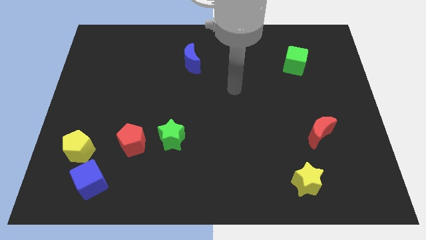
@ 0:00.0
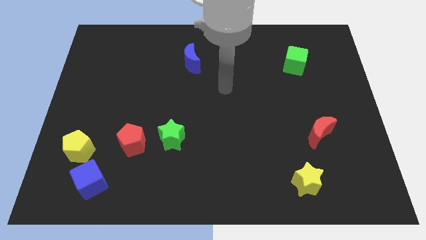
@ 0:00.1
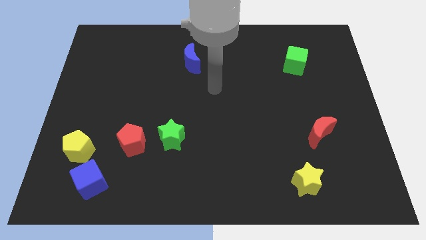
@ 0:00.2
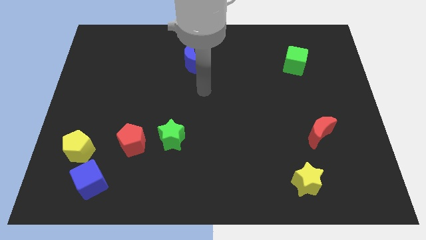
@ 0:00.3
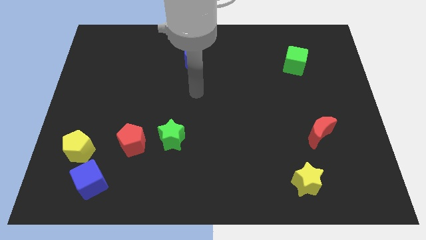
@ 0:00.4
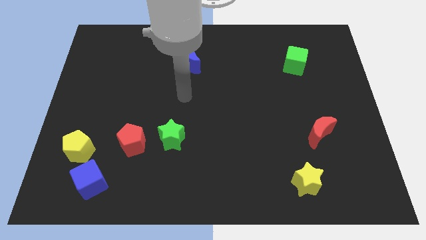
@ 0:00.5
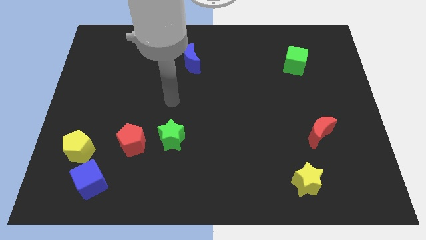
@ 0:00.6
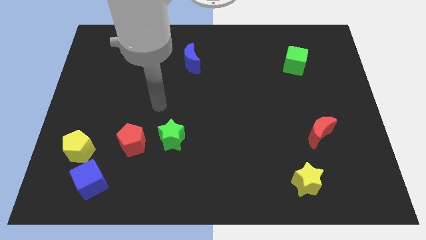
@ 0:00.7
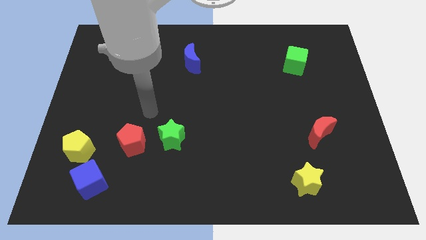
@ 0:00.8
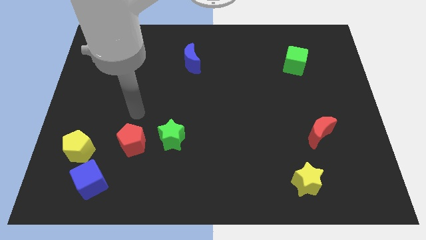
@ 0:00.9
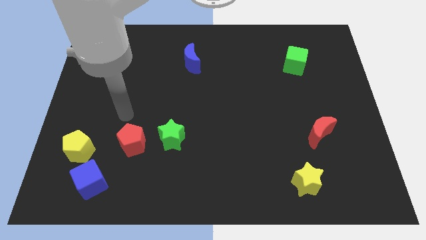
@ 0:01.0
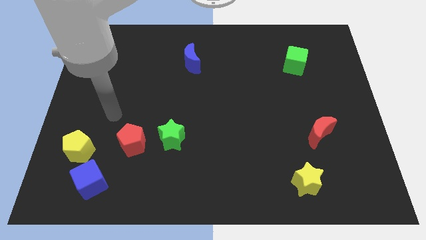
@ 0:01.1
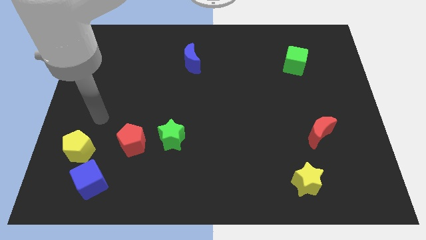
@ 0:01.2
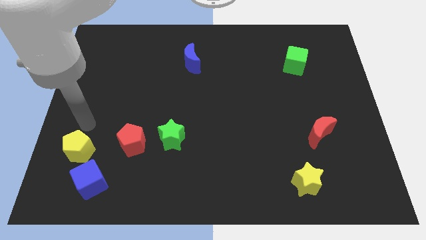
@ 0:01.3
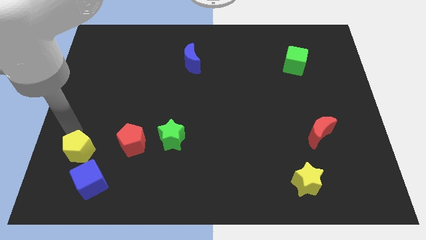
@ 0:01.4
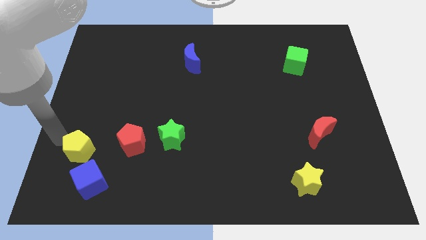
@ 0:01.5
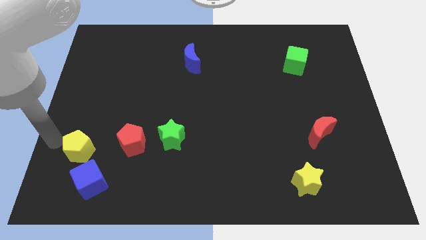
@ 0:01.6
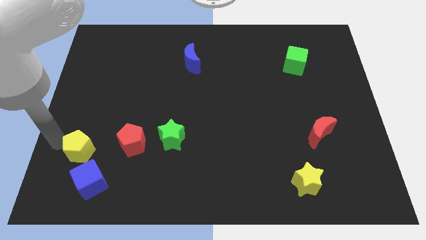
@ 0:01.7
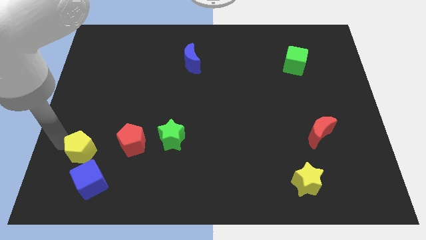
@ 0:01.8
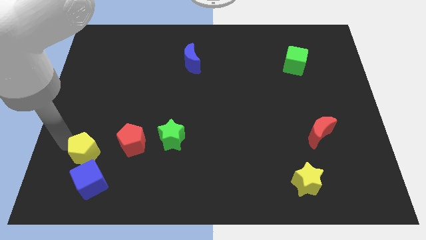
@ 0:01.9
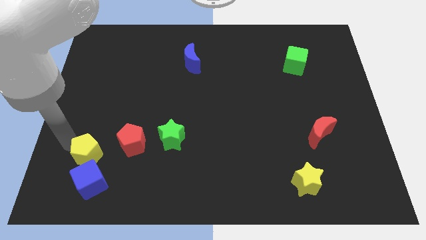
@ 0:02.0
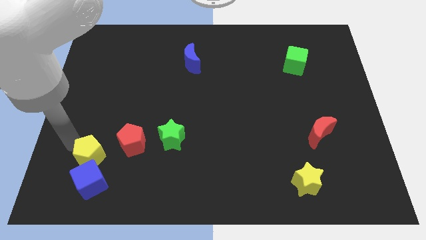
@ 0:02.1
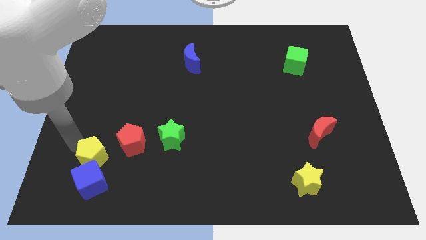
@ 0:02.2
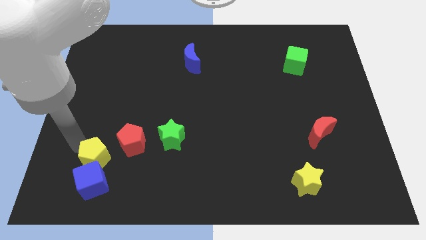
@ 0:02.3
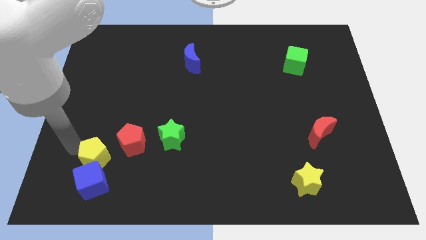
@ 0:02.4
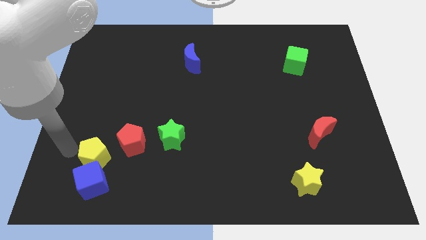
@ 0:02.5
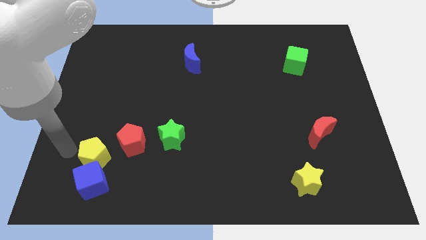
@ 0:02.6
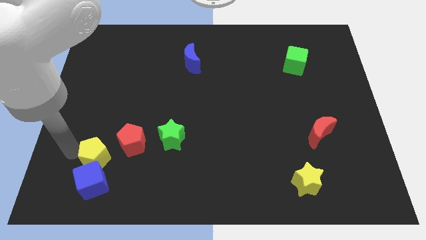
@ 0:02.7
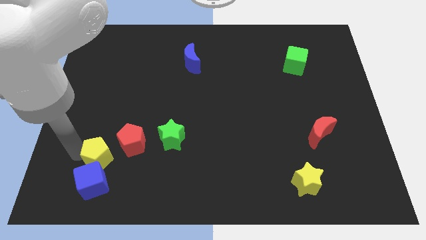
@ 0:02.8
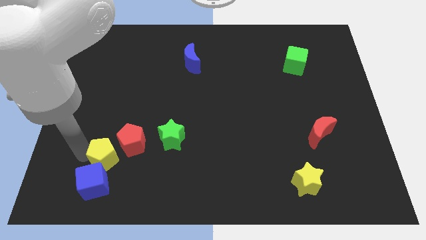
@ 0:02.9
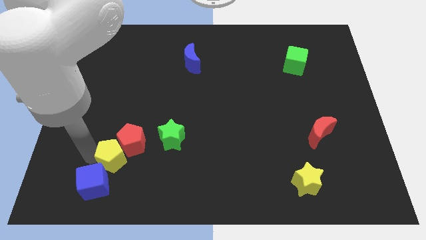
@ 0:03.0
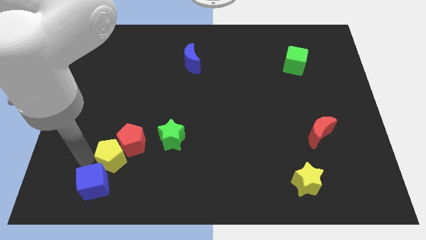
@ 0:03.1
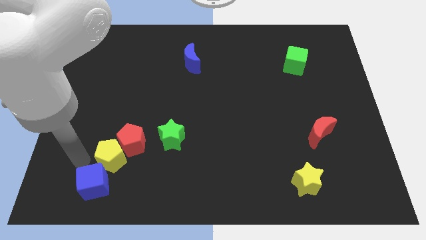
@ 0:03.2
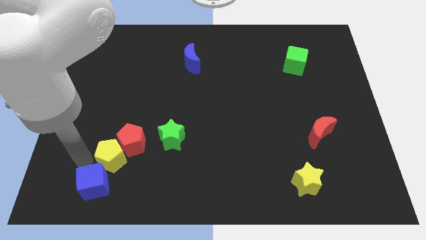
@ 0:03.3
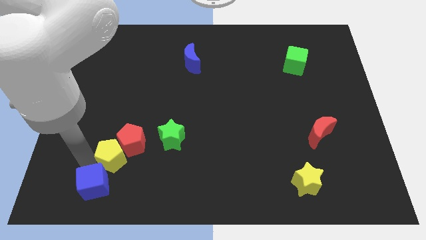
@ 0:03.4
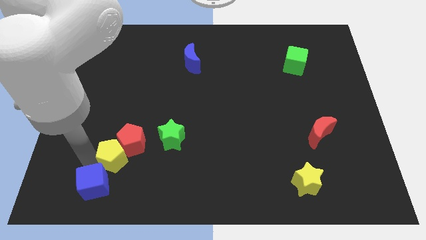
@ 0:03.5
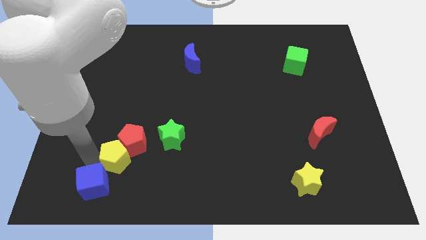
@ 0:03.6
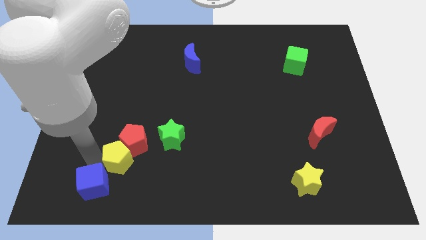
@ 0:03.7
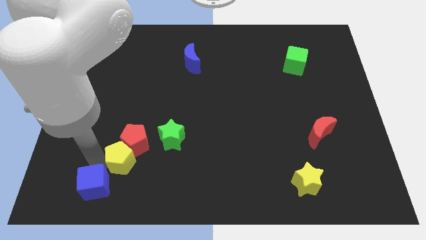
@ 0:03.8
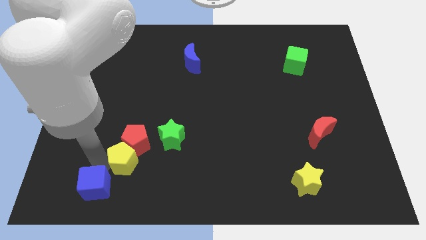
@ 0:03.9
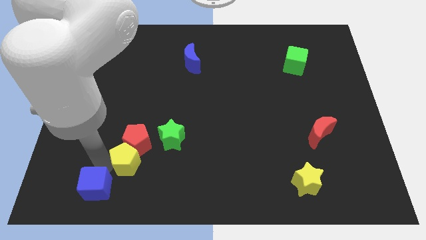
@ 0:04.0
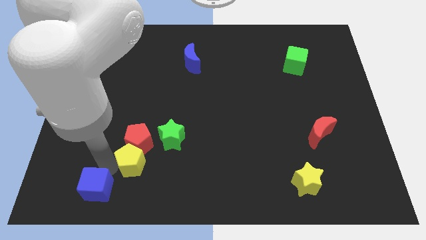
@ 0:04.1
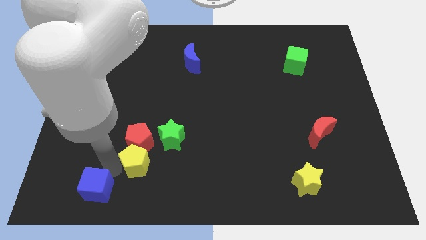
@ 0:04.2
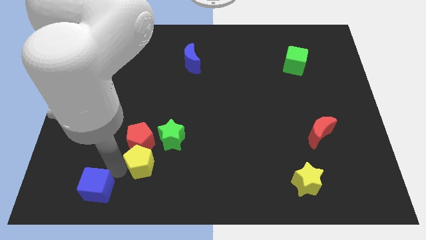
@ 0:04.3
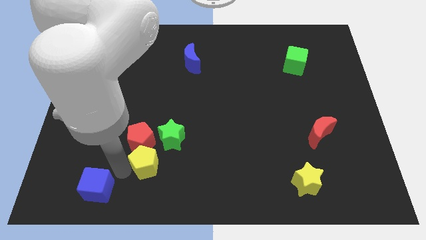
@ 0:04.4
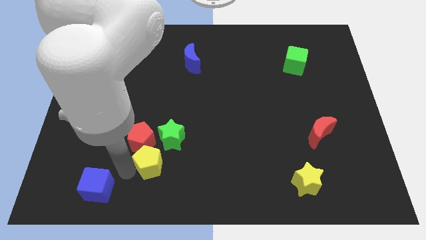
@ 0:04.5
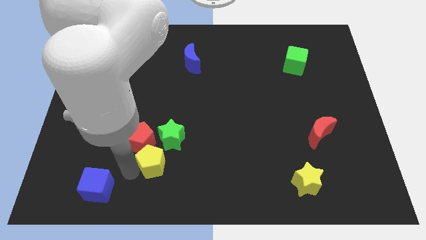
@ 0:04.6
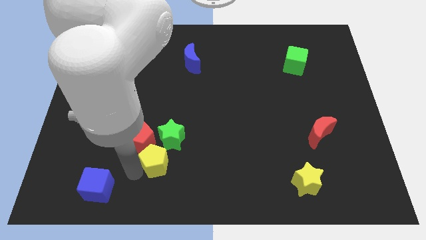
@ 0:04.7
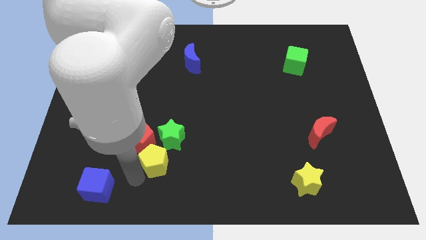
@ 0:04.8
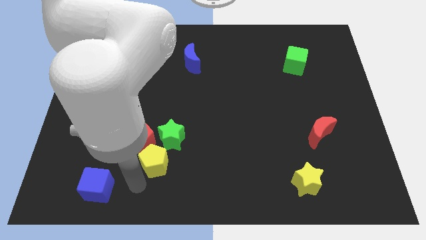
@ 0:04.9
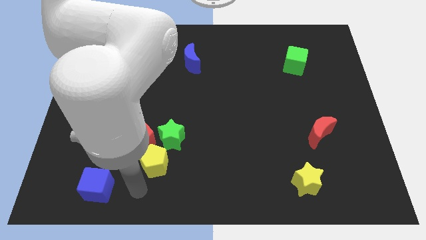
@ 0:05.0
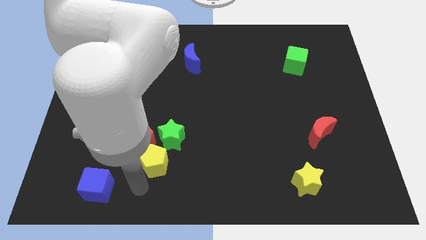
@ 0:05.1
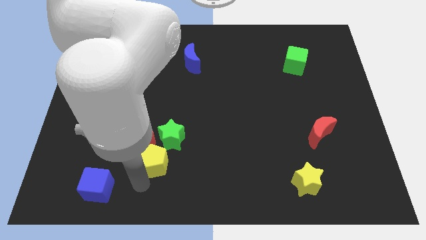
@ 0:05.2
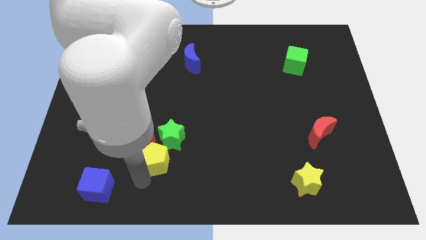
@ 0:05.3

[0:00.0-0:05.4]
slide the yellow pentagon to the green star

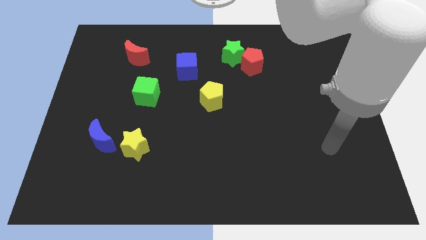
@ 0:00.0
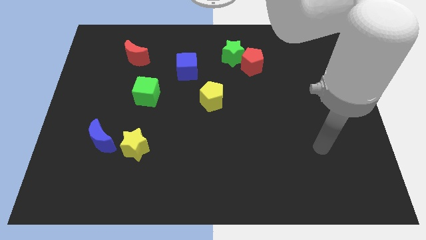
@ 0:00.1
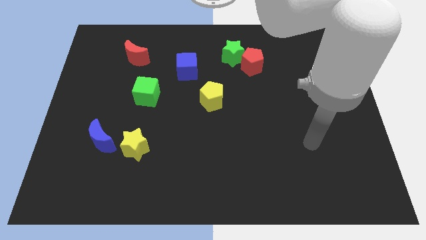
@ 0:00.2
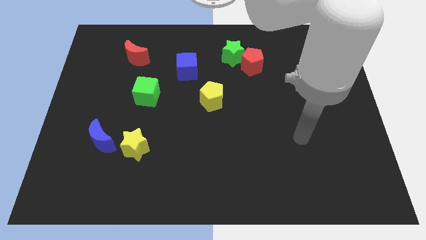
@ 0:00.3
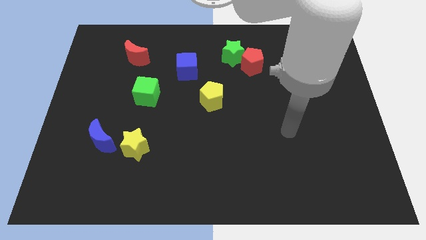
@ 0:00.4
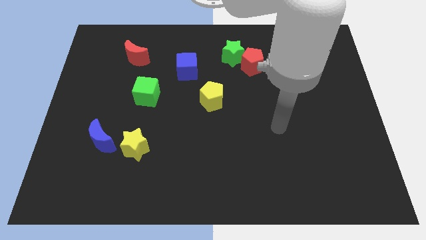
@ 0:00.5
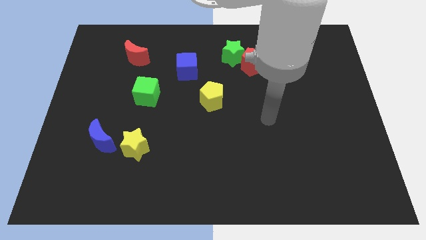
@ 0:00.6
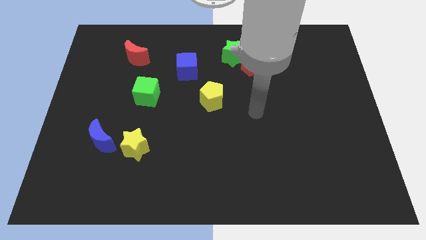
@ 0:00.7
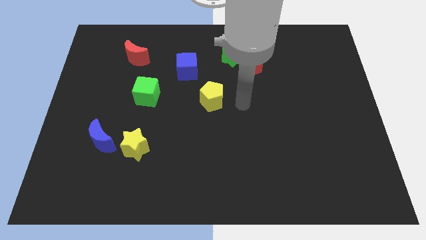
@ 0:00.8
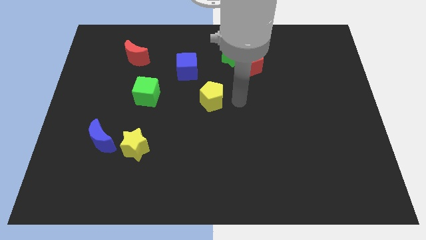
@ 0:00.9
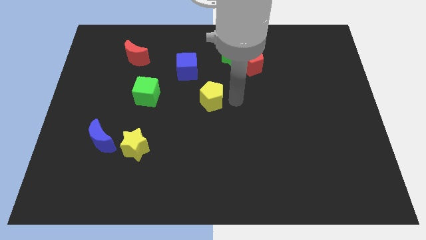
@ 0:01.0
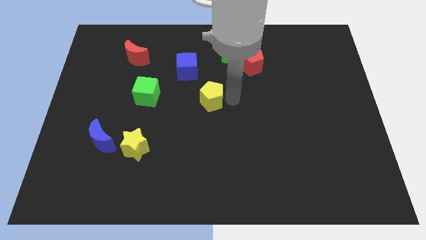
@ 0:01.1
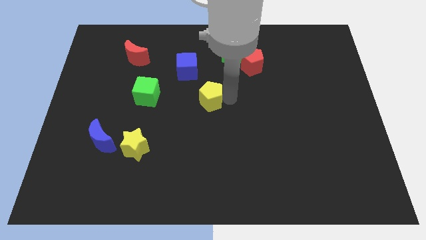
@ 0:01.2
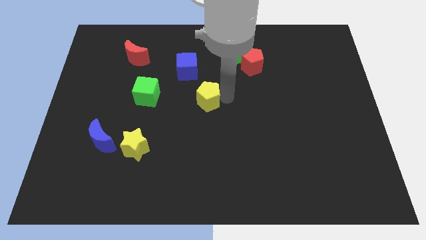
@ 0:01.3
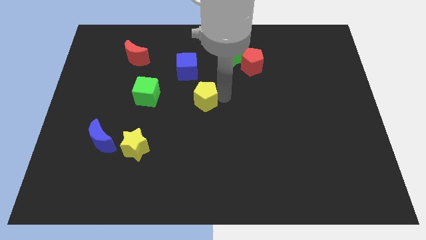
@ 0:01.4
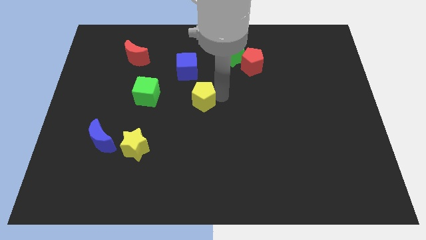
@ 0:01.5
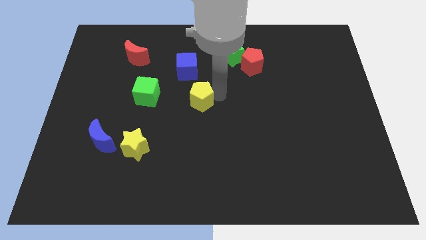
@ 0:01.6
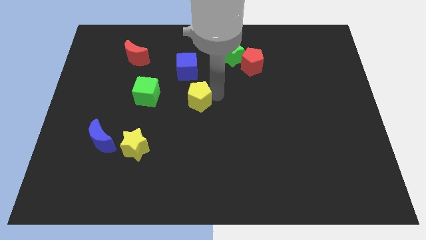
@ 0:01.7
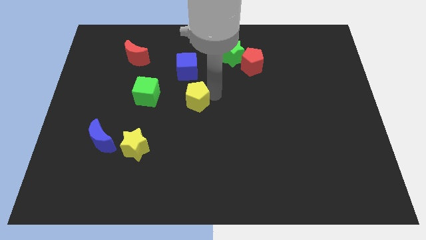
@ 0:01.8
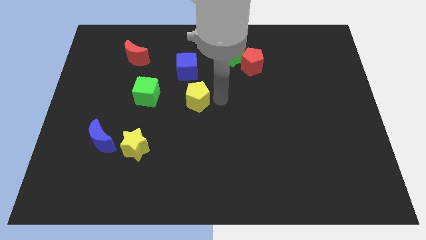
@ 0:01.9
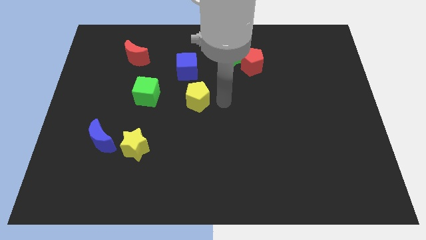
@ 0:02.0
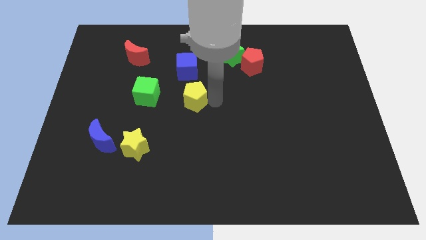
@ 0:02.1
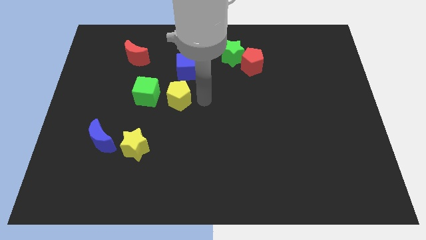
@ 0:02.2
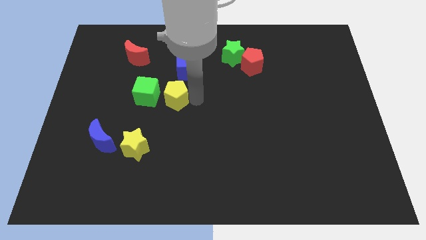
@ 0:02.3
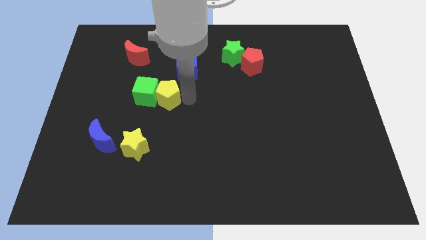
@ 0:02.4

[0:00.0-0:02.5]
move the yellow pentagon close to the green cube
